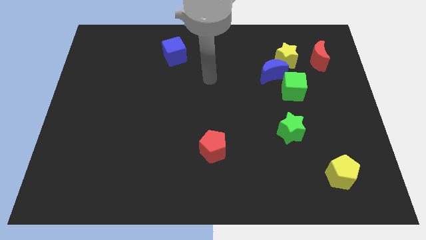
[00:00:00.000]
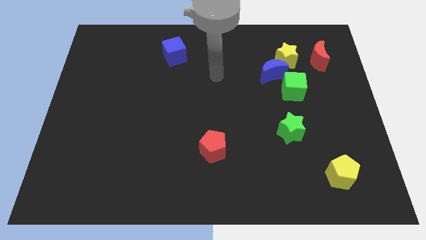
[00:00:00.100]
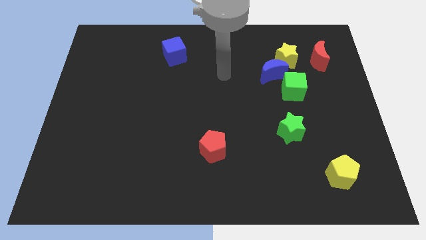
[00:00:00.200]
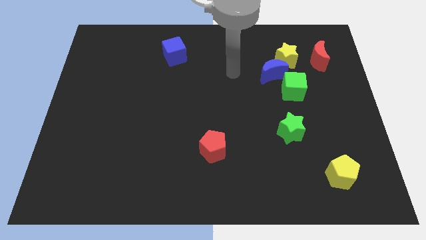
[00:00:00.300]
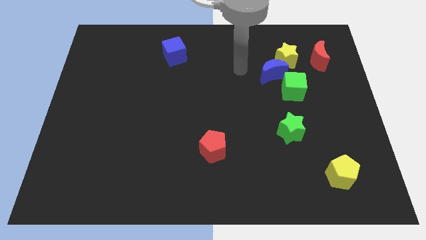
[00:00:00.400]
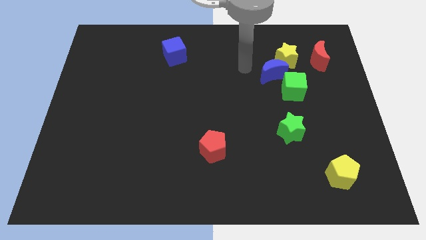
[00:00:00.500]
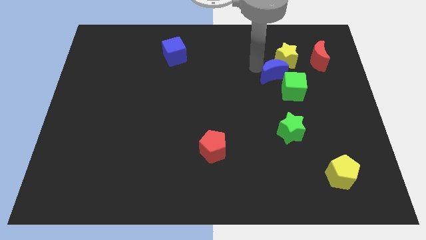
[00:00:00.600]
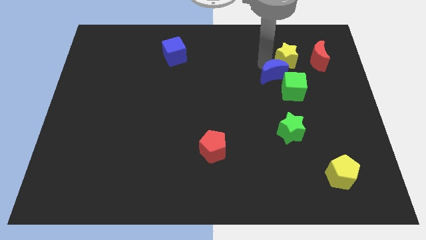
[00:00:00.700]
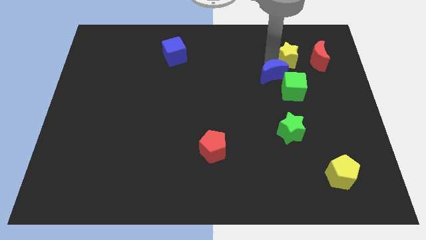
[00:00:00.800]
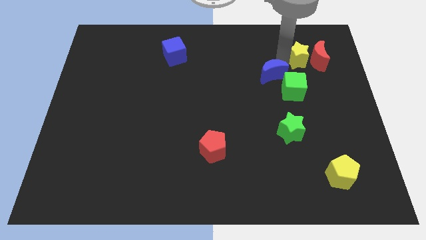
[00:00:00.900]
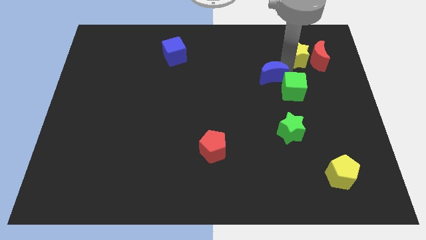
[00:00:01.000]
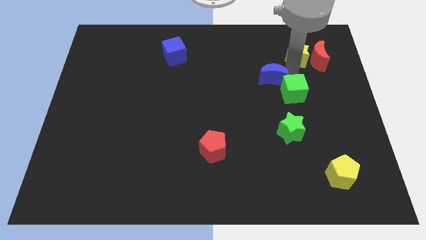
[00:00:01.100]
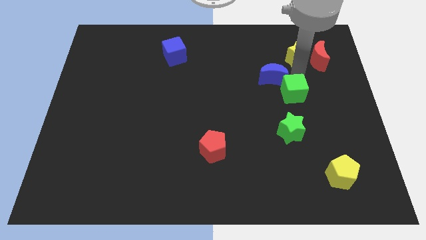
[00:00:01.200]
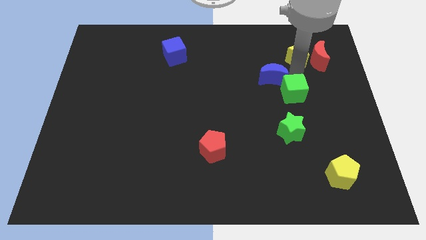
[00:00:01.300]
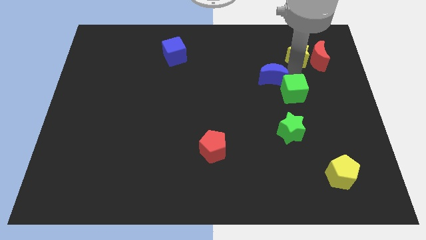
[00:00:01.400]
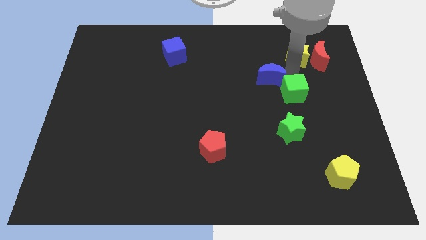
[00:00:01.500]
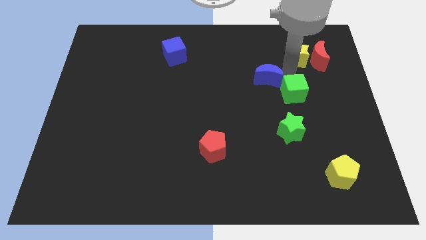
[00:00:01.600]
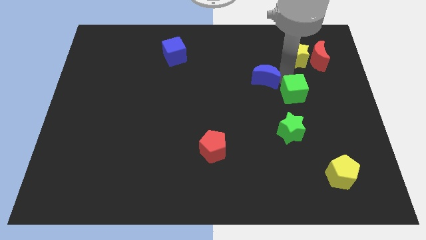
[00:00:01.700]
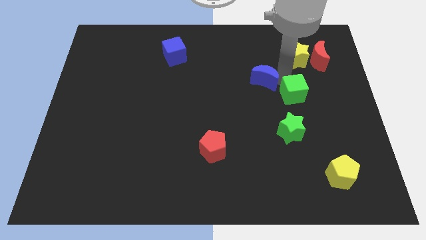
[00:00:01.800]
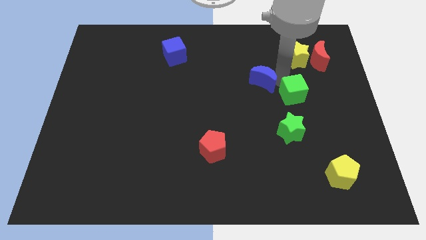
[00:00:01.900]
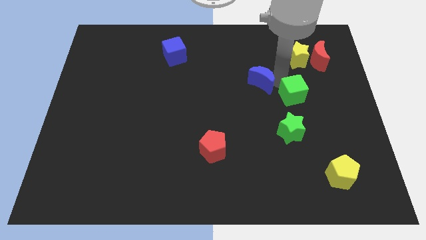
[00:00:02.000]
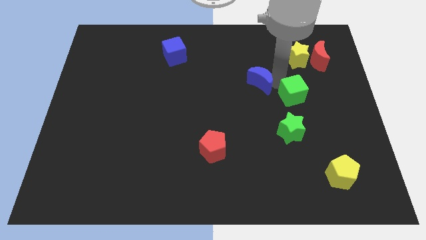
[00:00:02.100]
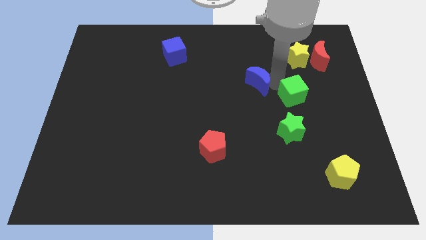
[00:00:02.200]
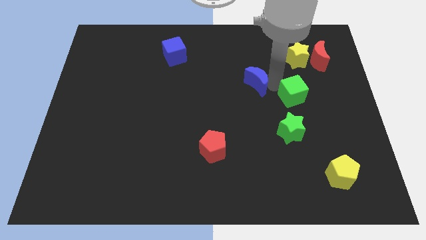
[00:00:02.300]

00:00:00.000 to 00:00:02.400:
separate the blue moon from the yellow star and green cube

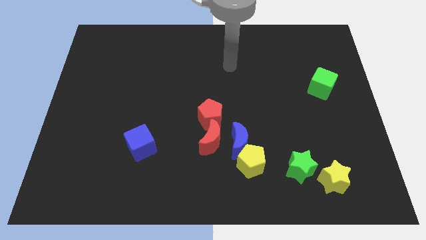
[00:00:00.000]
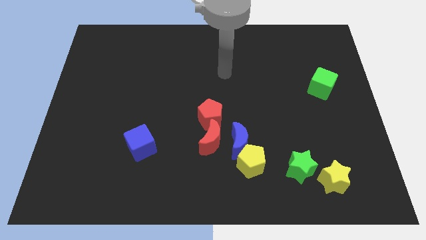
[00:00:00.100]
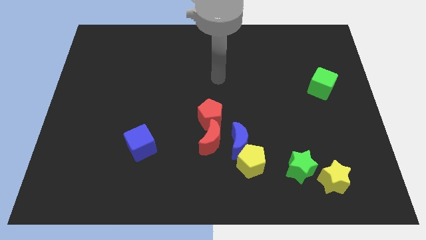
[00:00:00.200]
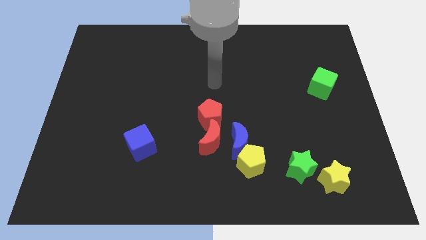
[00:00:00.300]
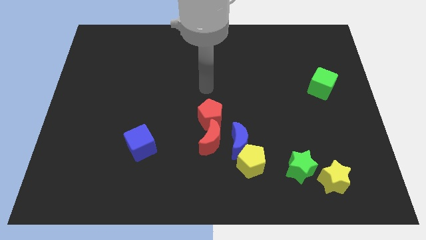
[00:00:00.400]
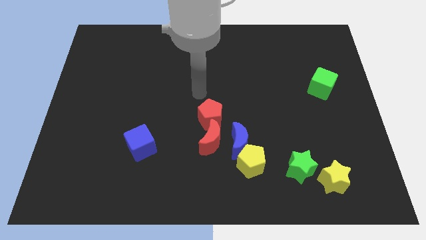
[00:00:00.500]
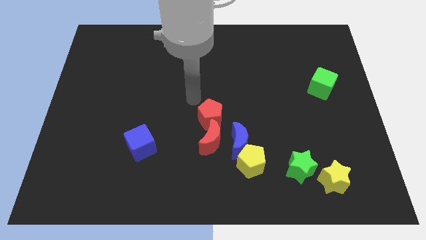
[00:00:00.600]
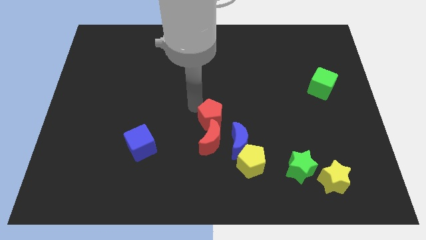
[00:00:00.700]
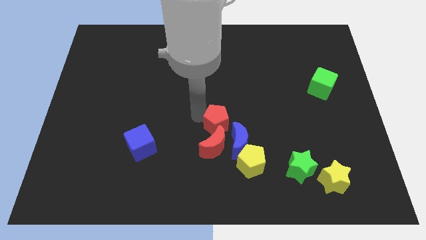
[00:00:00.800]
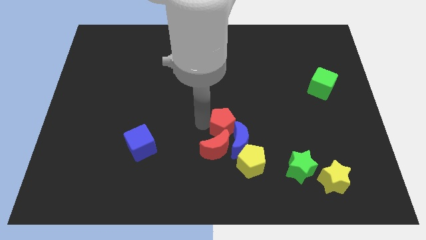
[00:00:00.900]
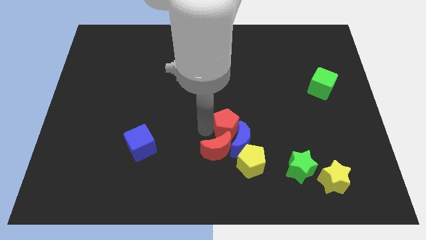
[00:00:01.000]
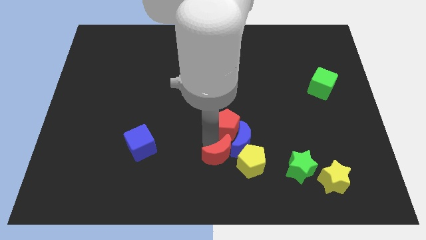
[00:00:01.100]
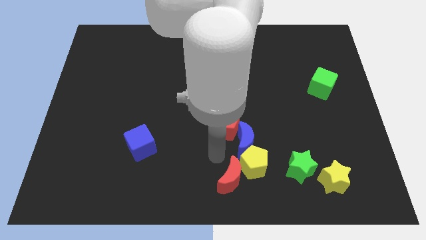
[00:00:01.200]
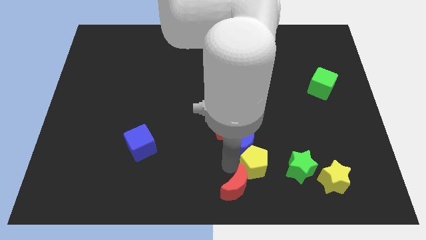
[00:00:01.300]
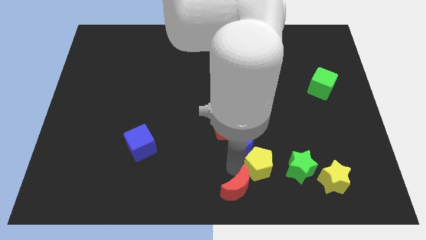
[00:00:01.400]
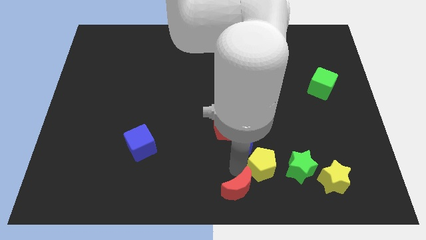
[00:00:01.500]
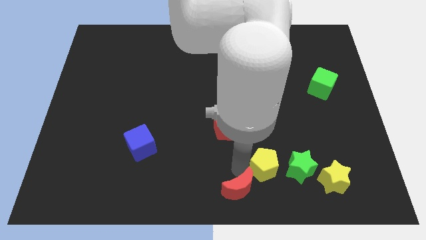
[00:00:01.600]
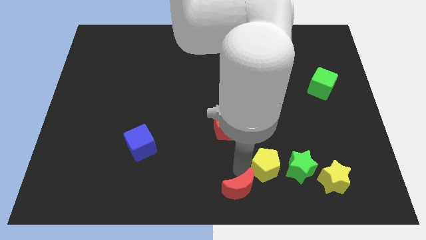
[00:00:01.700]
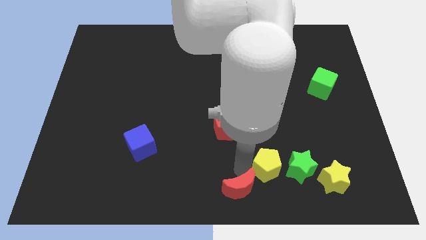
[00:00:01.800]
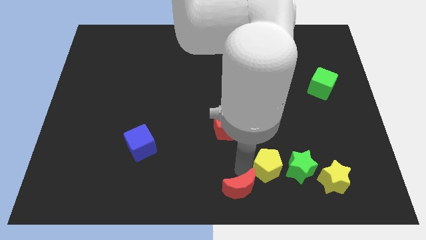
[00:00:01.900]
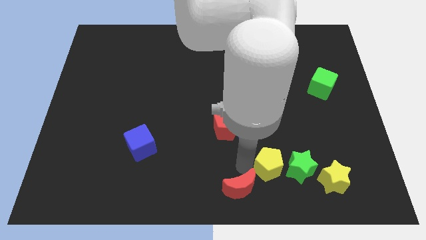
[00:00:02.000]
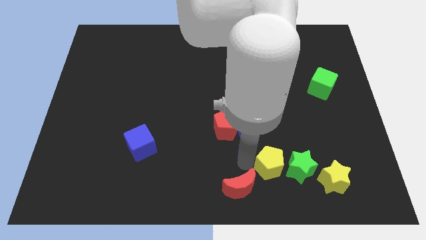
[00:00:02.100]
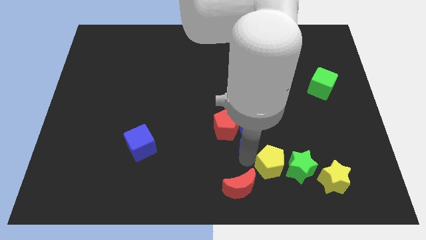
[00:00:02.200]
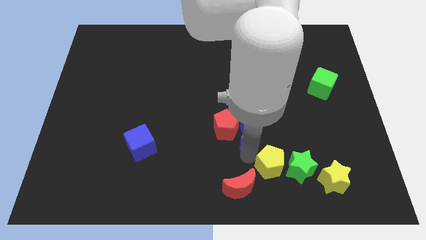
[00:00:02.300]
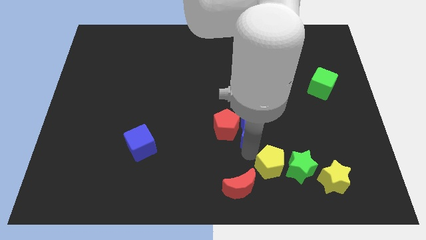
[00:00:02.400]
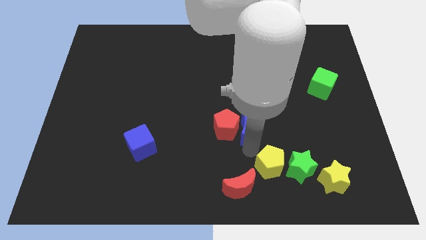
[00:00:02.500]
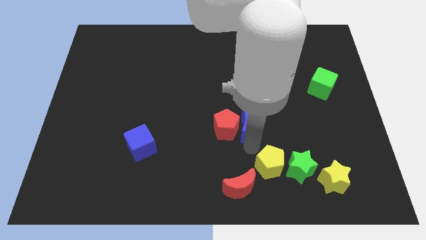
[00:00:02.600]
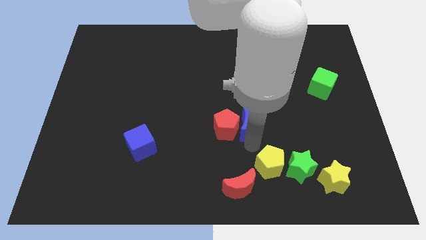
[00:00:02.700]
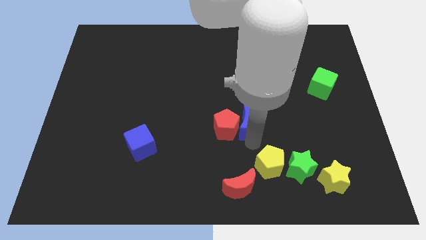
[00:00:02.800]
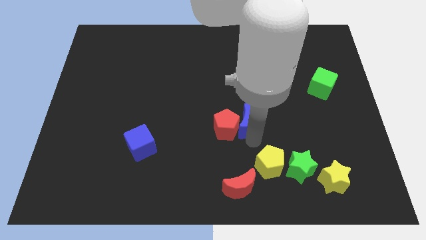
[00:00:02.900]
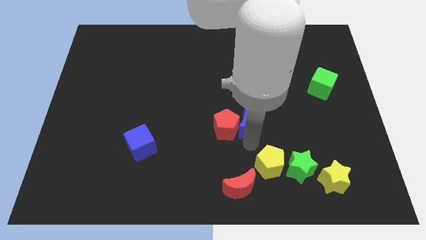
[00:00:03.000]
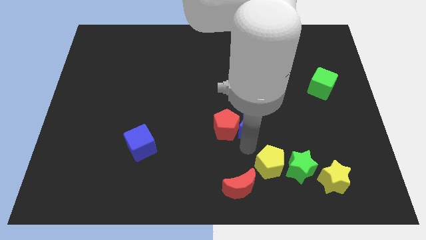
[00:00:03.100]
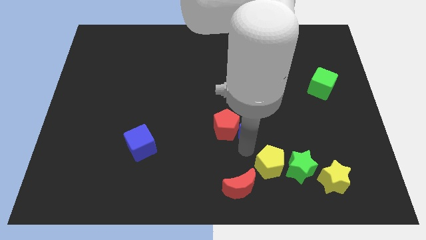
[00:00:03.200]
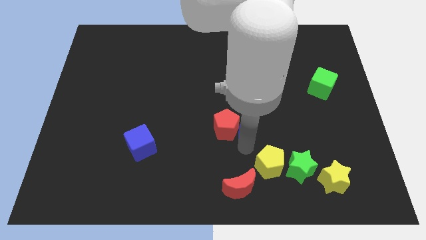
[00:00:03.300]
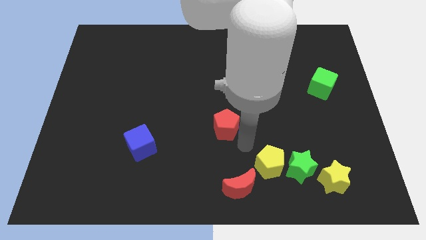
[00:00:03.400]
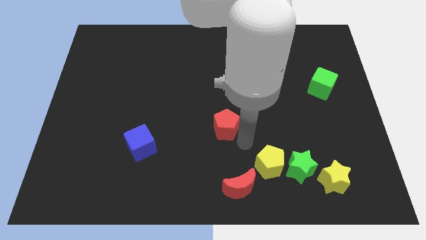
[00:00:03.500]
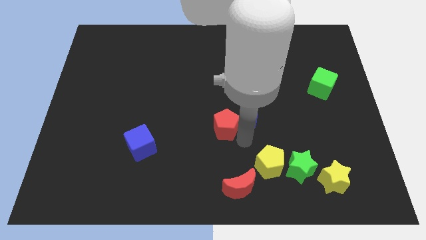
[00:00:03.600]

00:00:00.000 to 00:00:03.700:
move the blue moon away from the group

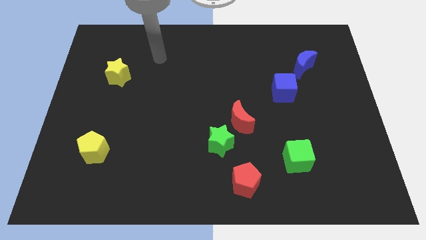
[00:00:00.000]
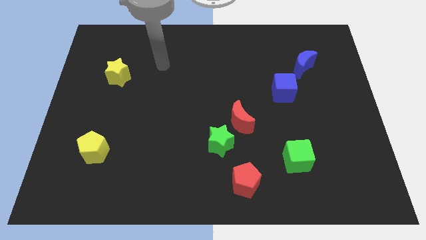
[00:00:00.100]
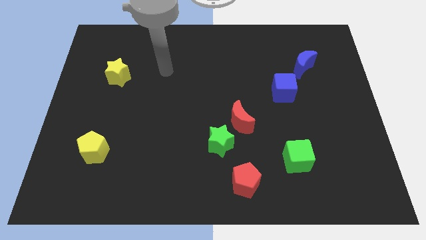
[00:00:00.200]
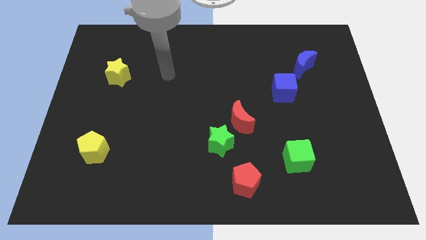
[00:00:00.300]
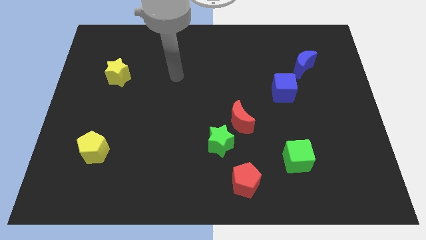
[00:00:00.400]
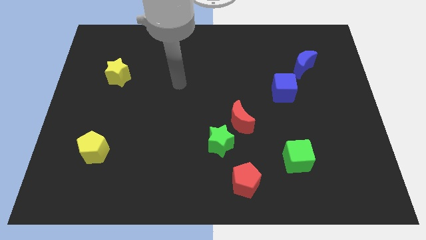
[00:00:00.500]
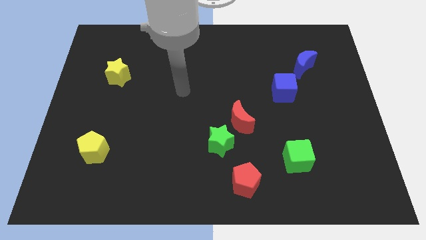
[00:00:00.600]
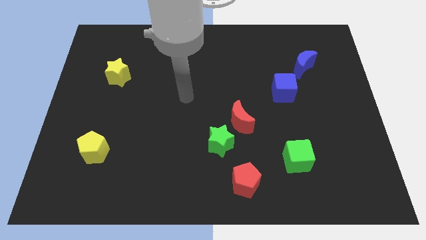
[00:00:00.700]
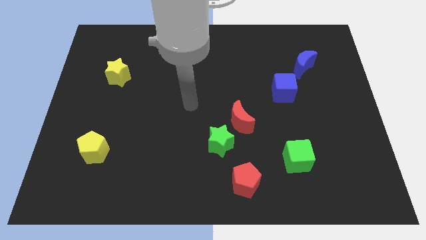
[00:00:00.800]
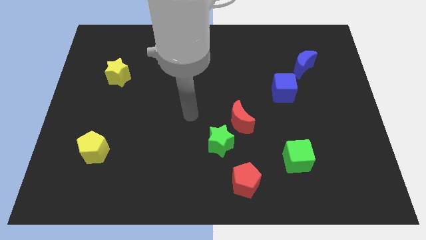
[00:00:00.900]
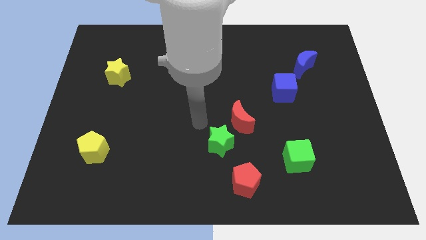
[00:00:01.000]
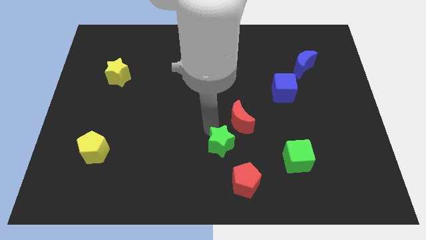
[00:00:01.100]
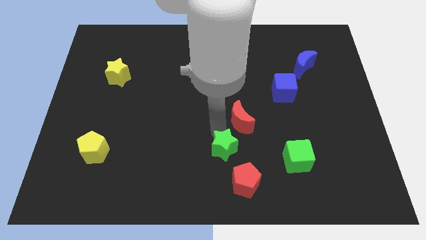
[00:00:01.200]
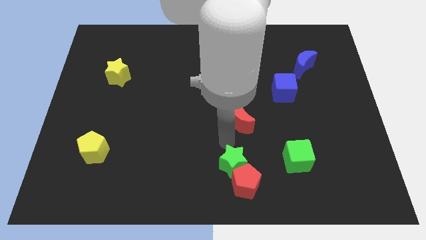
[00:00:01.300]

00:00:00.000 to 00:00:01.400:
separate the red moon from the green star

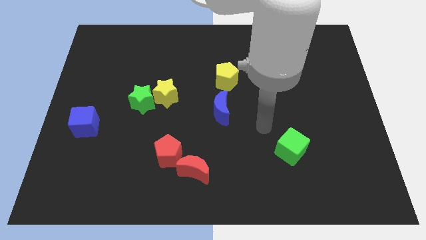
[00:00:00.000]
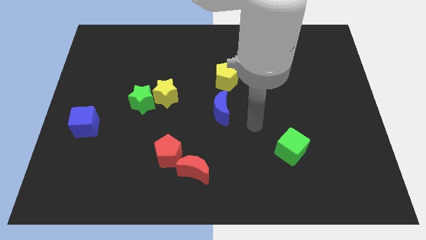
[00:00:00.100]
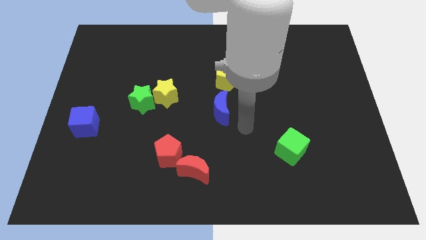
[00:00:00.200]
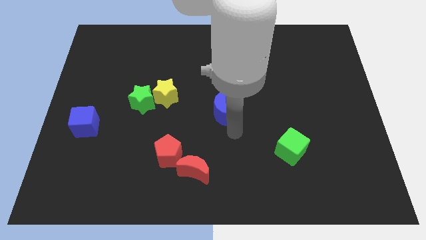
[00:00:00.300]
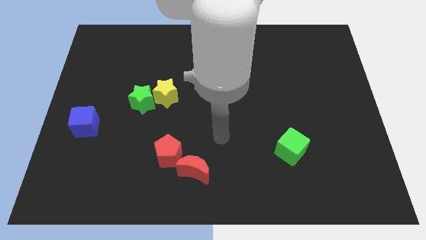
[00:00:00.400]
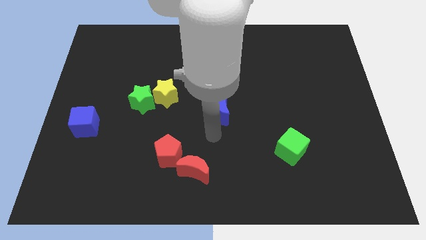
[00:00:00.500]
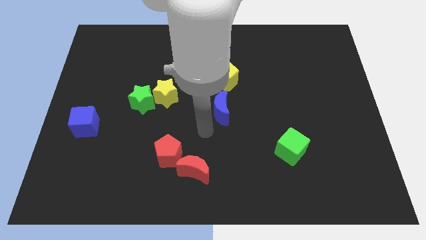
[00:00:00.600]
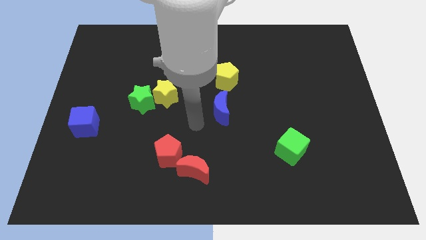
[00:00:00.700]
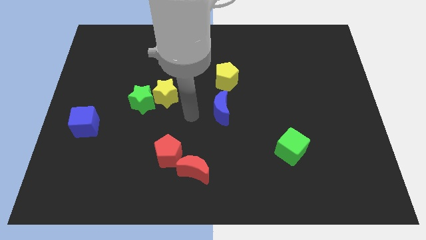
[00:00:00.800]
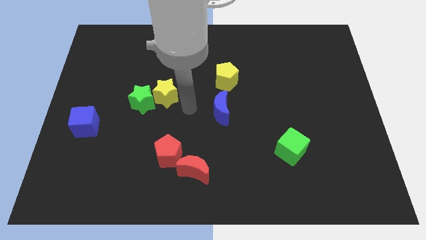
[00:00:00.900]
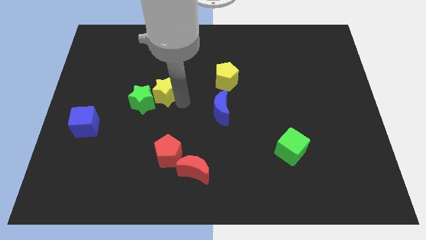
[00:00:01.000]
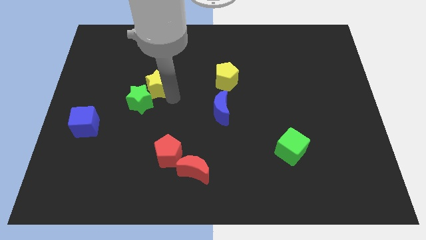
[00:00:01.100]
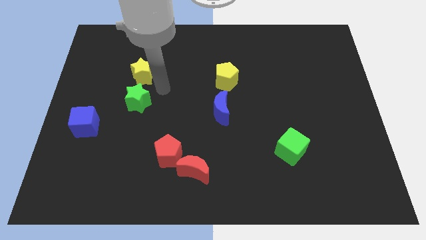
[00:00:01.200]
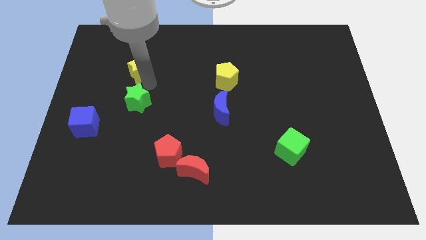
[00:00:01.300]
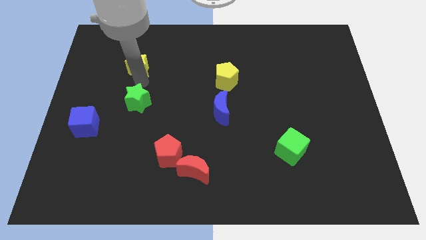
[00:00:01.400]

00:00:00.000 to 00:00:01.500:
move the green star away from the yellow star

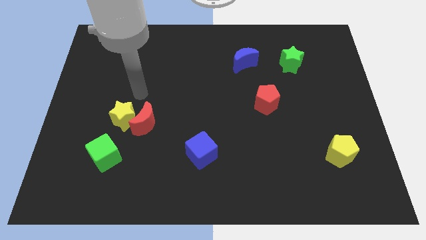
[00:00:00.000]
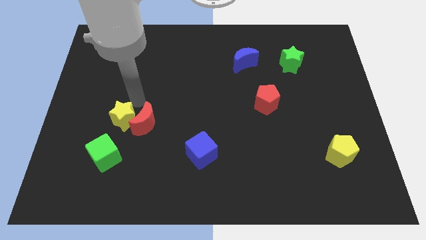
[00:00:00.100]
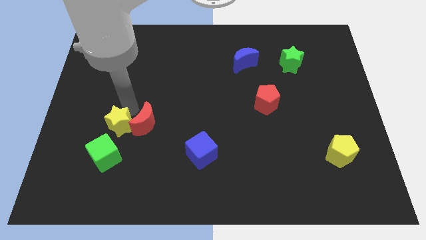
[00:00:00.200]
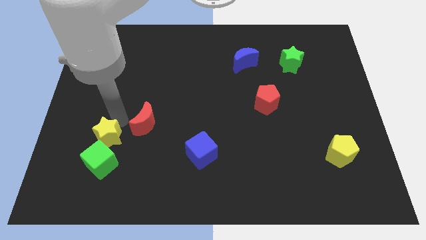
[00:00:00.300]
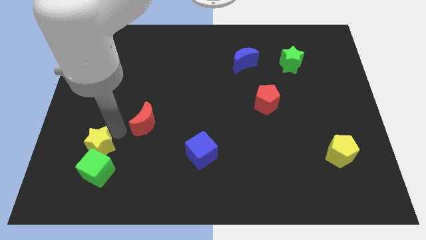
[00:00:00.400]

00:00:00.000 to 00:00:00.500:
pull the red moon apart from the yellow star
